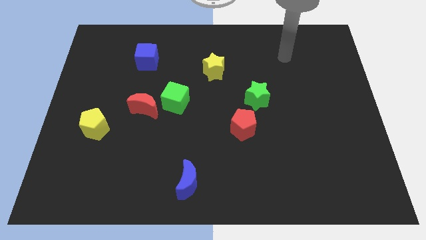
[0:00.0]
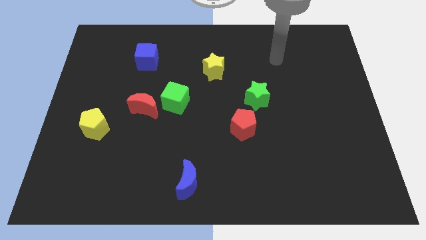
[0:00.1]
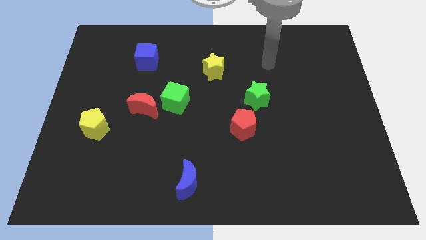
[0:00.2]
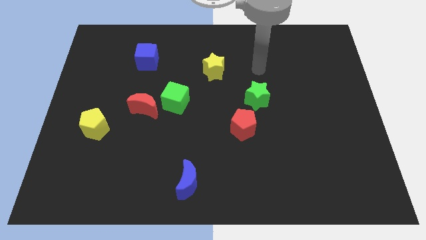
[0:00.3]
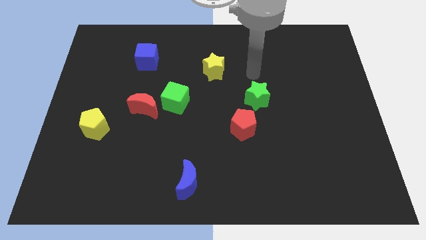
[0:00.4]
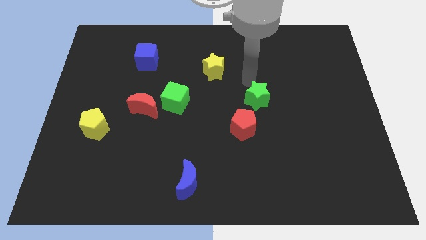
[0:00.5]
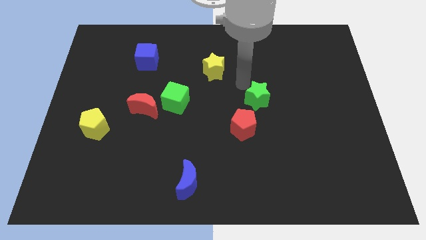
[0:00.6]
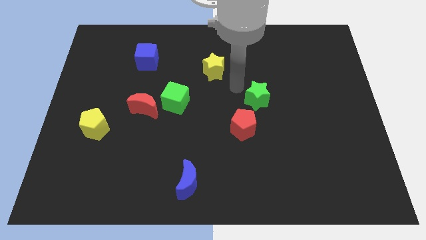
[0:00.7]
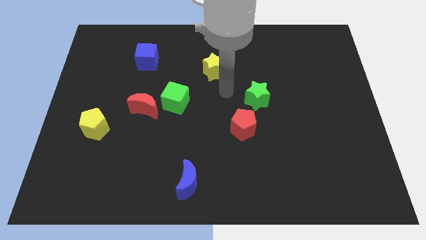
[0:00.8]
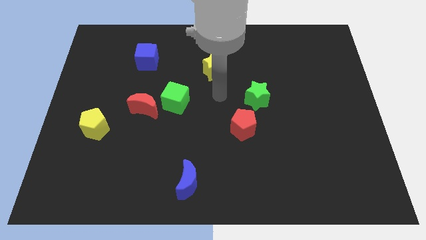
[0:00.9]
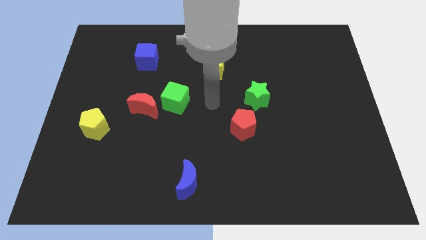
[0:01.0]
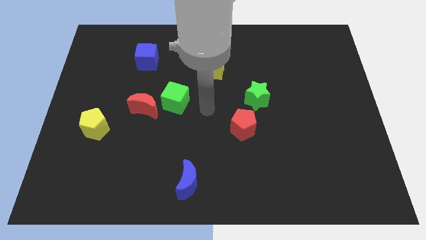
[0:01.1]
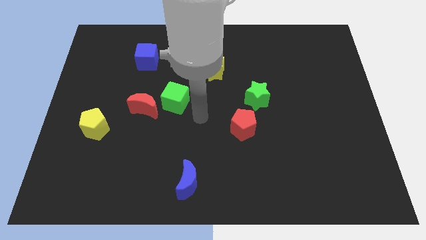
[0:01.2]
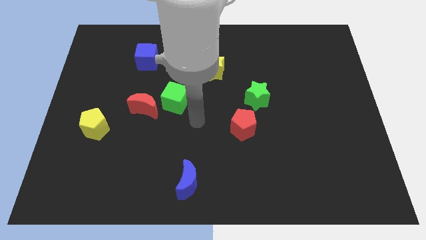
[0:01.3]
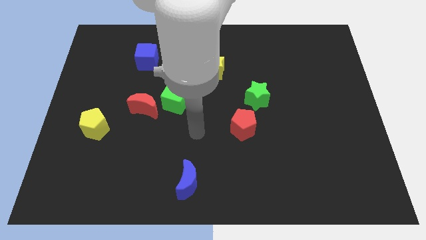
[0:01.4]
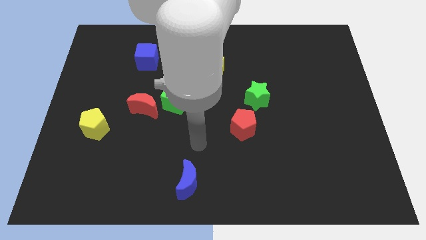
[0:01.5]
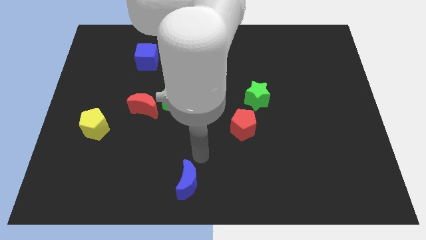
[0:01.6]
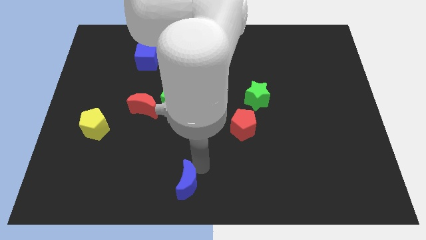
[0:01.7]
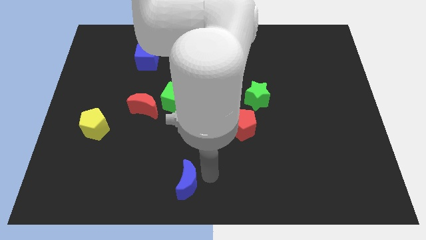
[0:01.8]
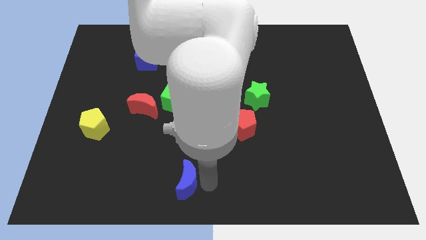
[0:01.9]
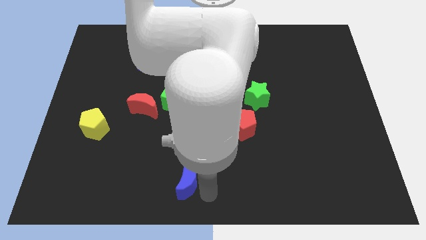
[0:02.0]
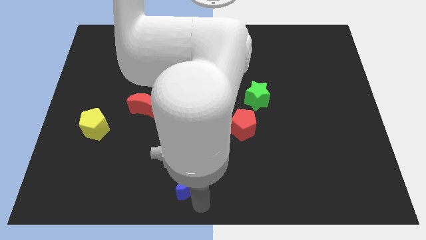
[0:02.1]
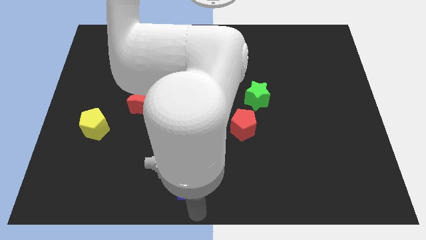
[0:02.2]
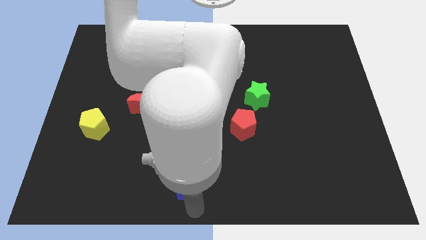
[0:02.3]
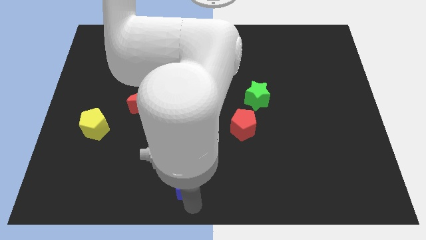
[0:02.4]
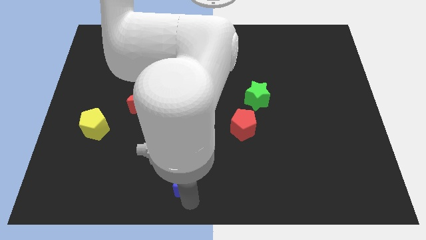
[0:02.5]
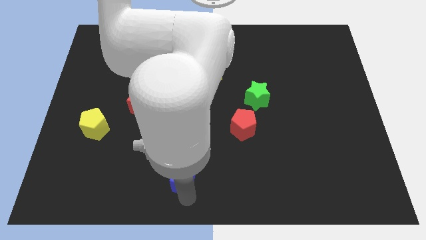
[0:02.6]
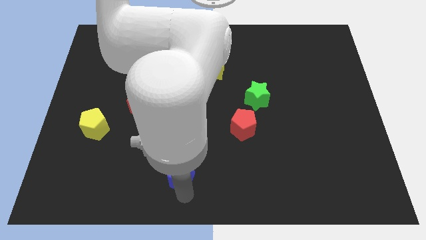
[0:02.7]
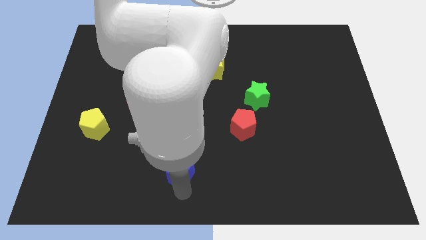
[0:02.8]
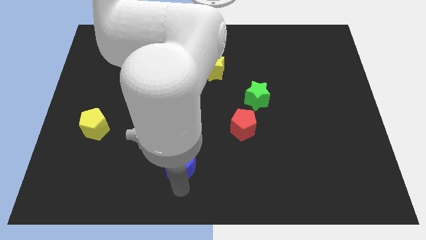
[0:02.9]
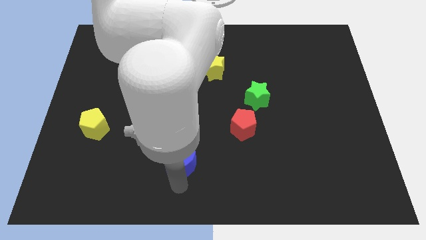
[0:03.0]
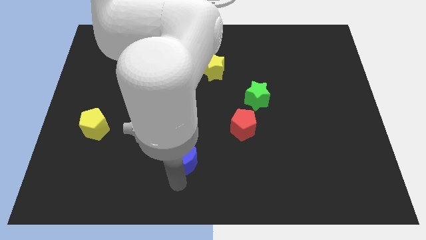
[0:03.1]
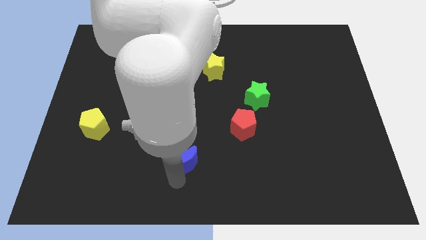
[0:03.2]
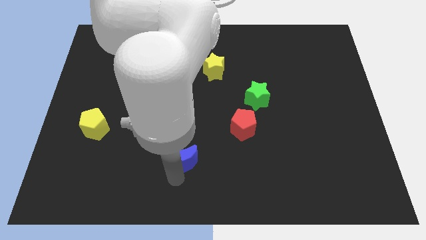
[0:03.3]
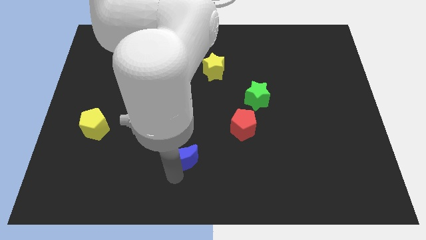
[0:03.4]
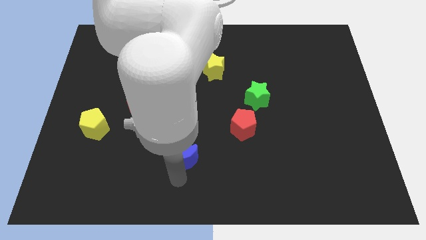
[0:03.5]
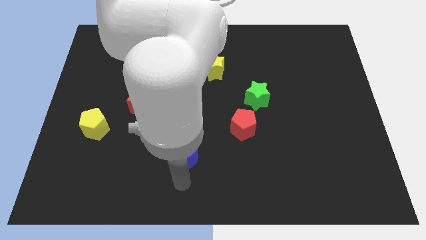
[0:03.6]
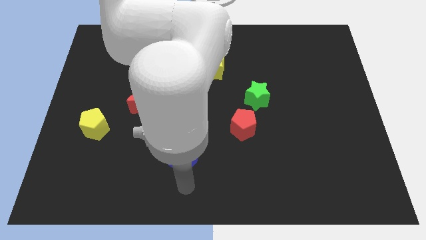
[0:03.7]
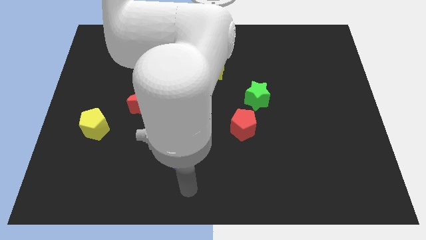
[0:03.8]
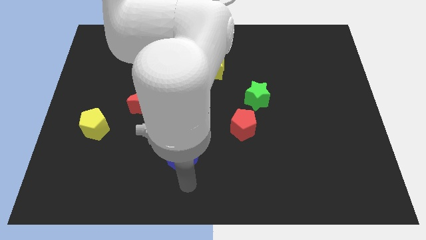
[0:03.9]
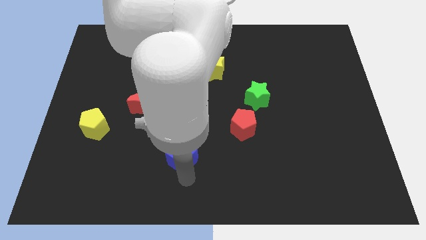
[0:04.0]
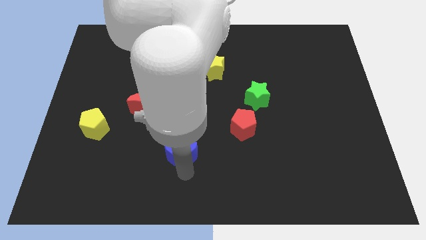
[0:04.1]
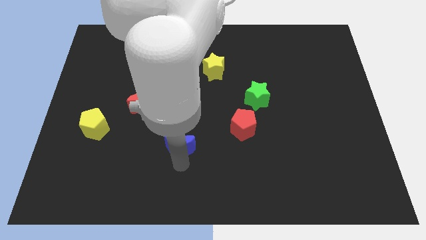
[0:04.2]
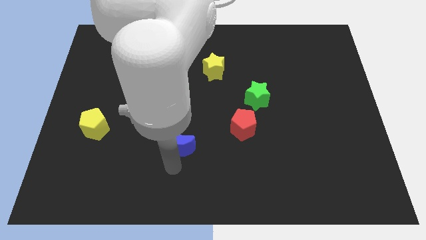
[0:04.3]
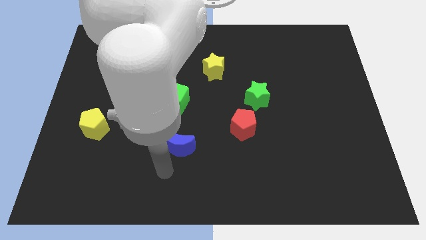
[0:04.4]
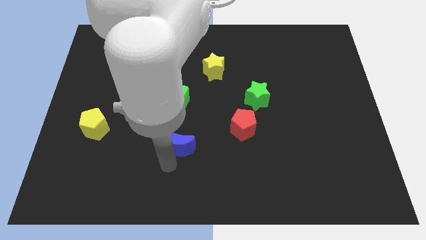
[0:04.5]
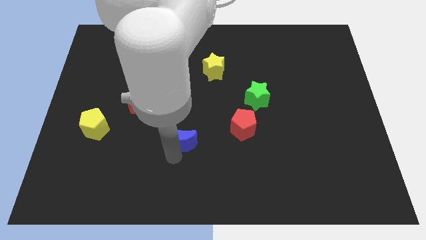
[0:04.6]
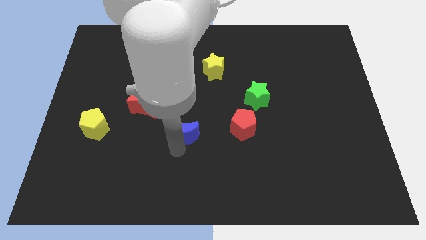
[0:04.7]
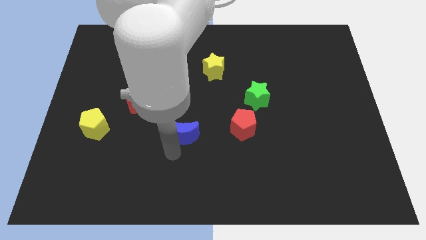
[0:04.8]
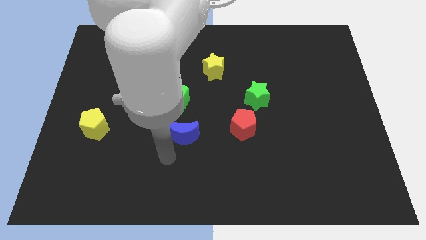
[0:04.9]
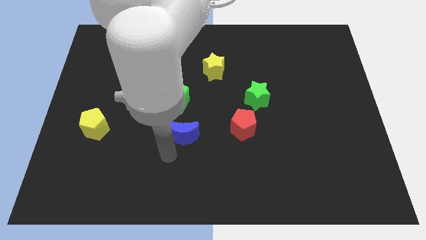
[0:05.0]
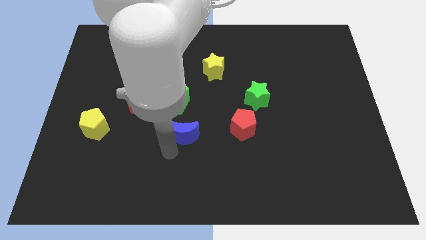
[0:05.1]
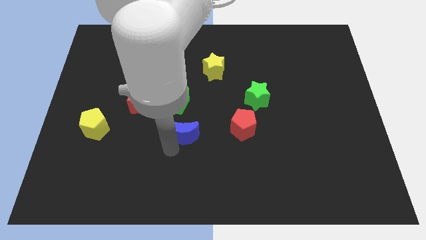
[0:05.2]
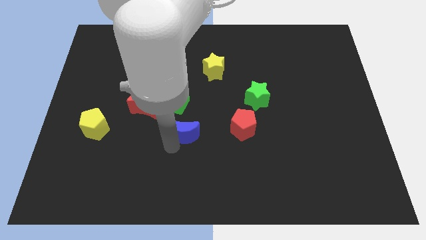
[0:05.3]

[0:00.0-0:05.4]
move the blue moon to the bottom right of the green cube

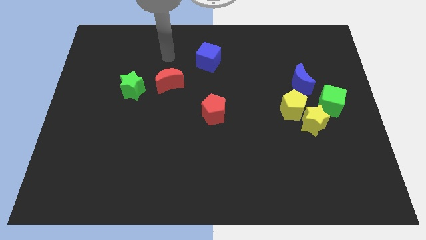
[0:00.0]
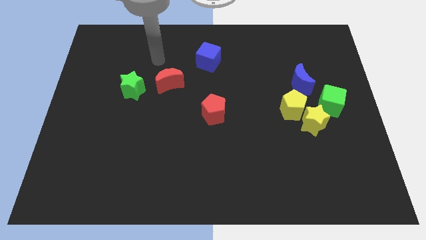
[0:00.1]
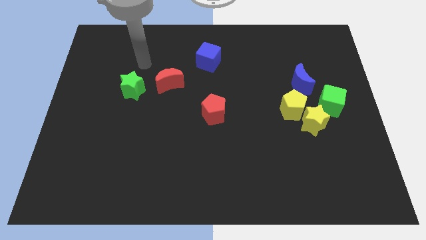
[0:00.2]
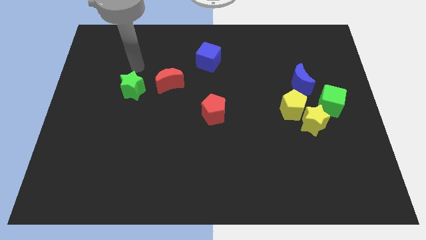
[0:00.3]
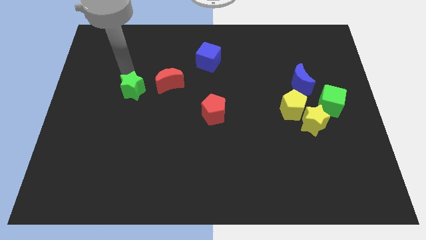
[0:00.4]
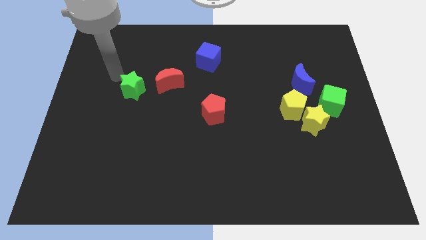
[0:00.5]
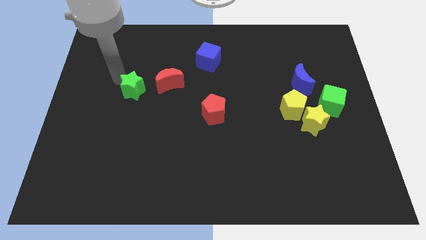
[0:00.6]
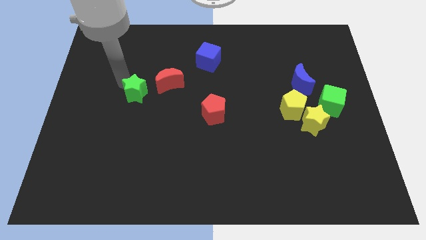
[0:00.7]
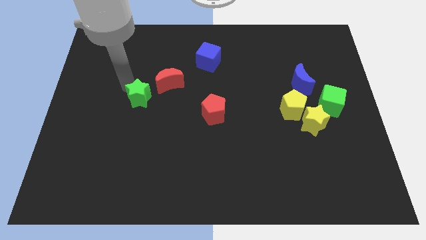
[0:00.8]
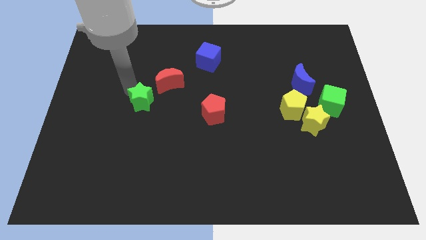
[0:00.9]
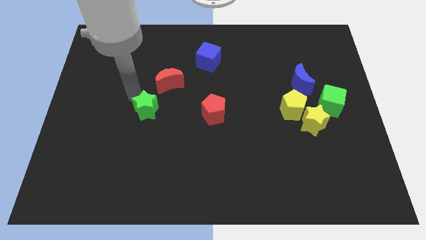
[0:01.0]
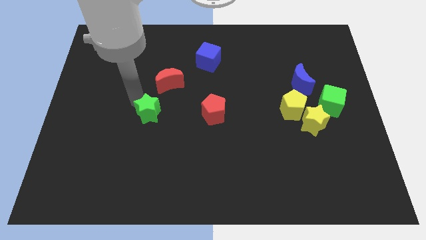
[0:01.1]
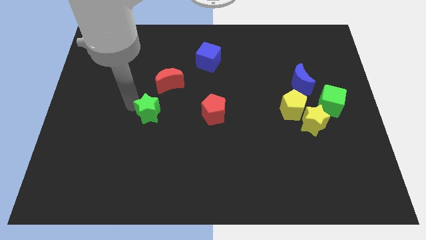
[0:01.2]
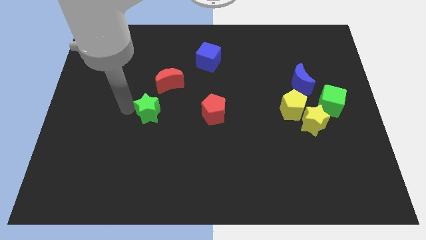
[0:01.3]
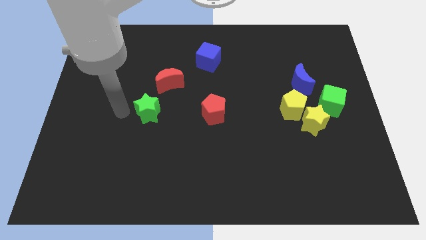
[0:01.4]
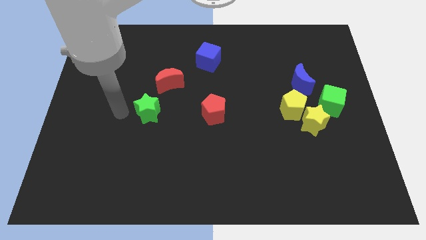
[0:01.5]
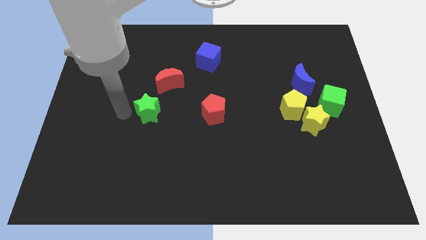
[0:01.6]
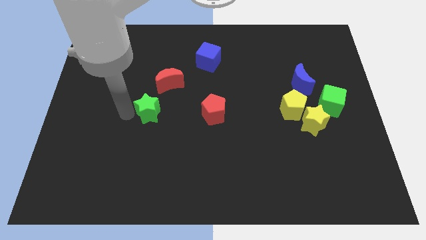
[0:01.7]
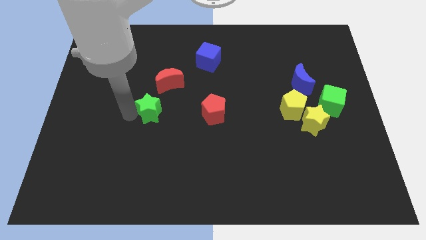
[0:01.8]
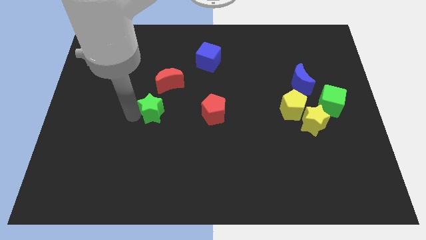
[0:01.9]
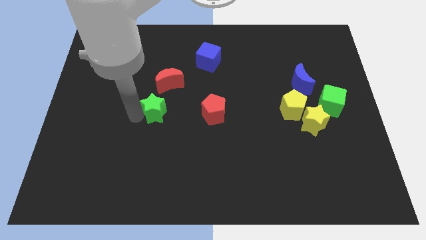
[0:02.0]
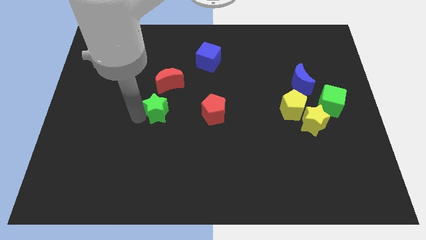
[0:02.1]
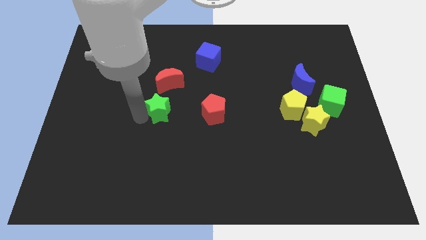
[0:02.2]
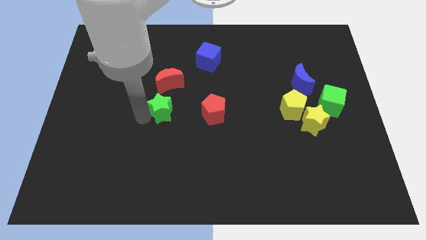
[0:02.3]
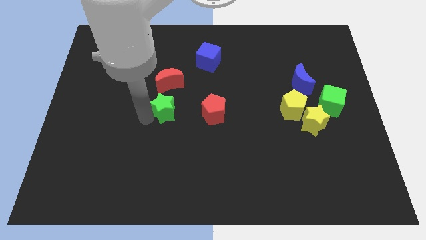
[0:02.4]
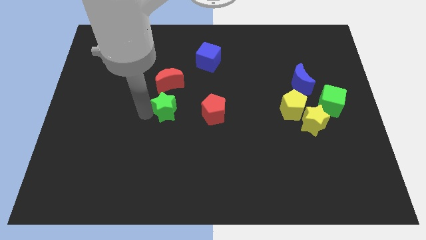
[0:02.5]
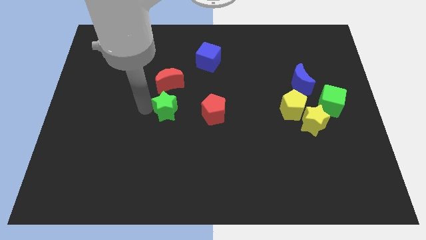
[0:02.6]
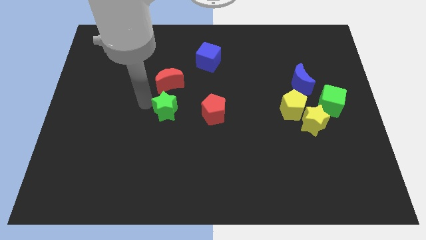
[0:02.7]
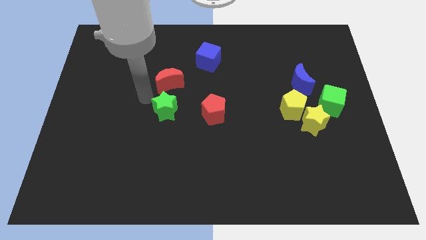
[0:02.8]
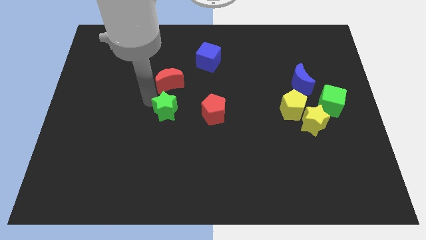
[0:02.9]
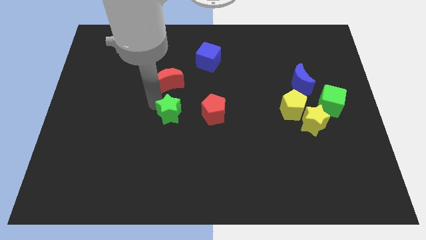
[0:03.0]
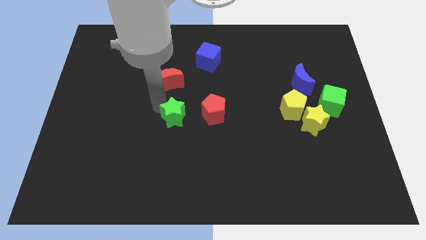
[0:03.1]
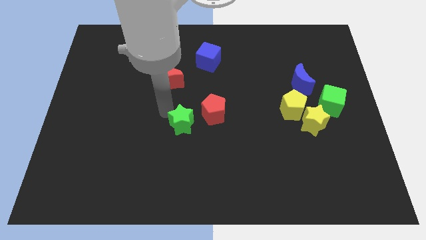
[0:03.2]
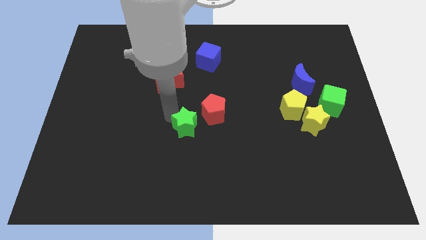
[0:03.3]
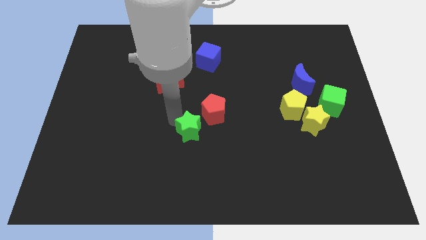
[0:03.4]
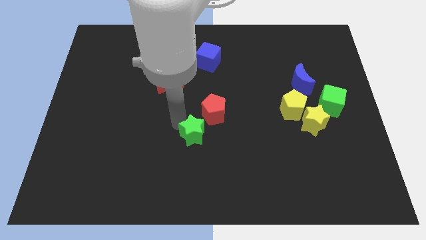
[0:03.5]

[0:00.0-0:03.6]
push the green star to the bottom side of the red pentagon
